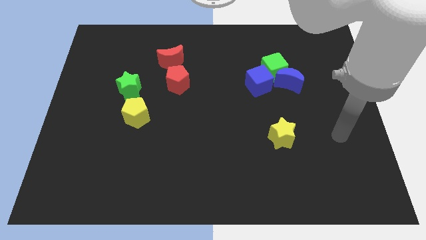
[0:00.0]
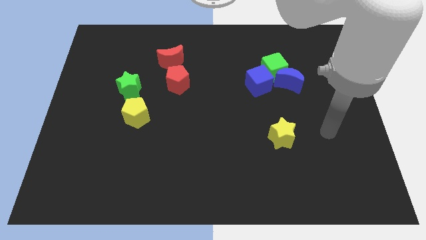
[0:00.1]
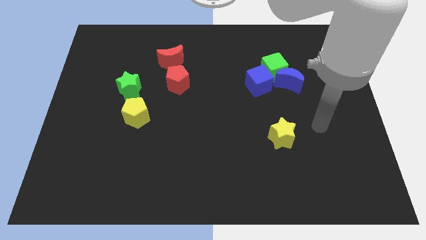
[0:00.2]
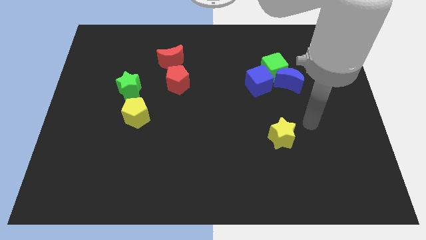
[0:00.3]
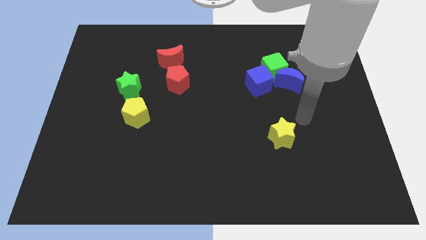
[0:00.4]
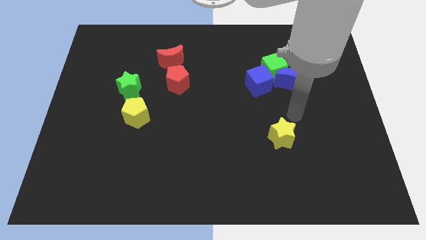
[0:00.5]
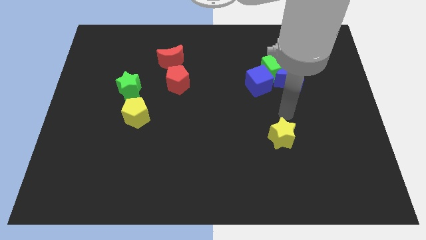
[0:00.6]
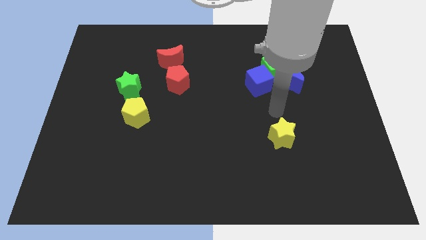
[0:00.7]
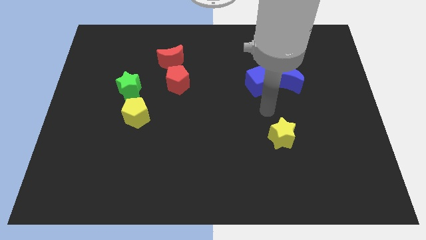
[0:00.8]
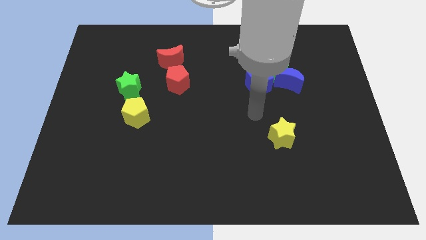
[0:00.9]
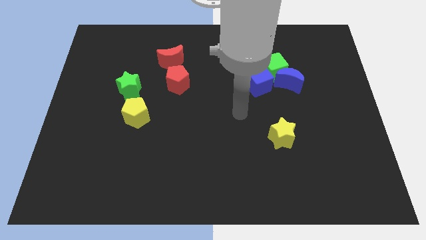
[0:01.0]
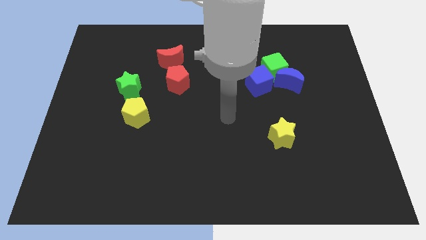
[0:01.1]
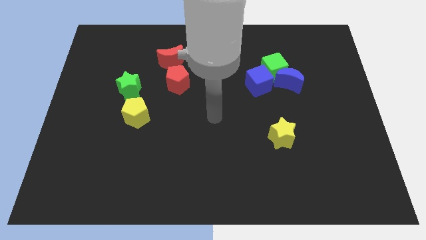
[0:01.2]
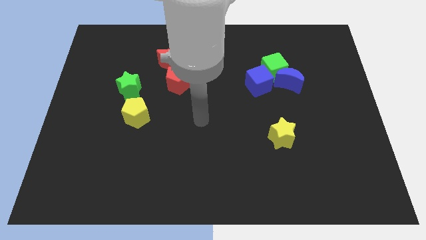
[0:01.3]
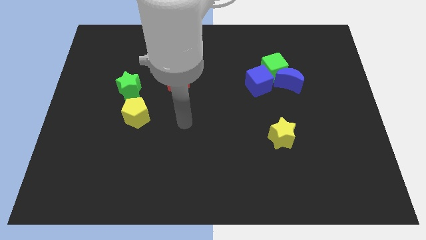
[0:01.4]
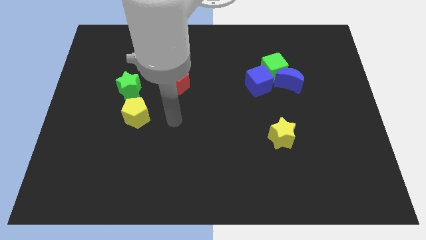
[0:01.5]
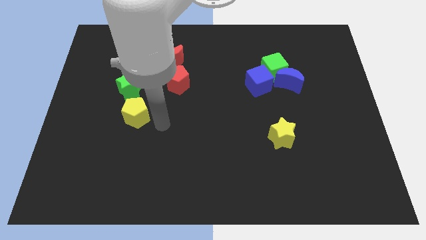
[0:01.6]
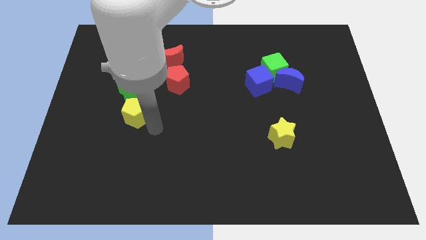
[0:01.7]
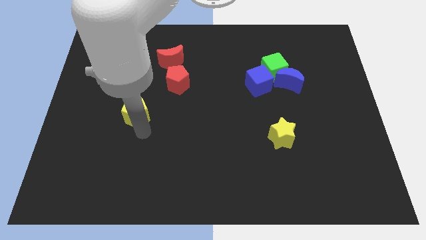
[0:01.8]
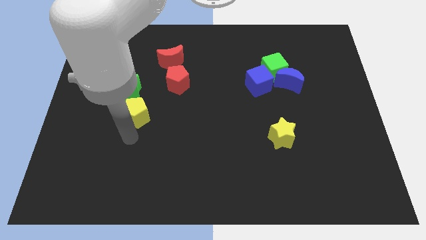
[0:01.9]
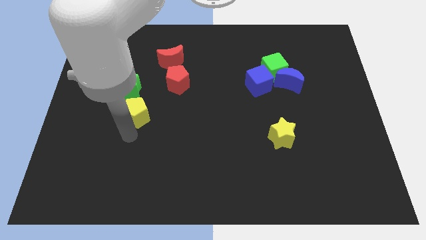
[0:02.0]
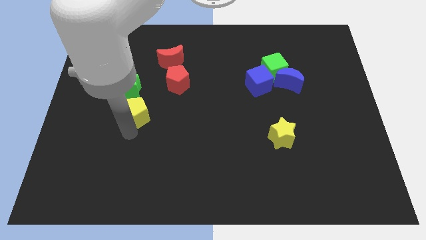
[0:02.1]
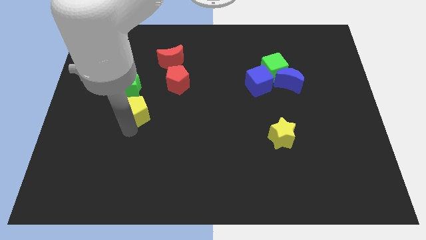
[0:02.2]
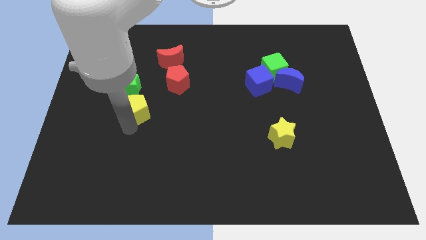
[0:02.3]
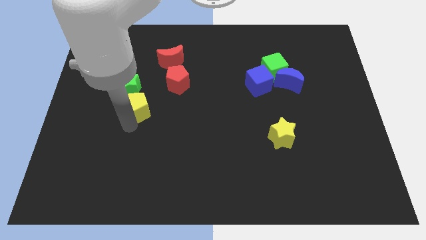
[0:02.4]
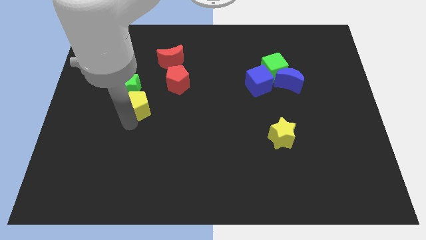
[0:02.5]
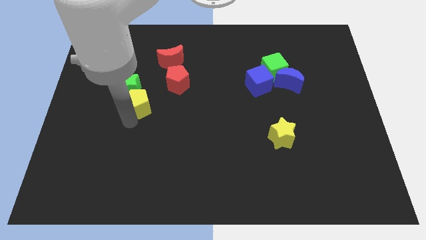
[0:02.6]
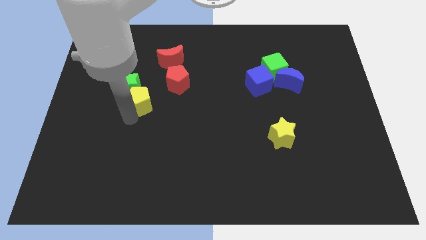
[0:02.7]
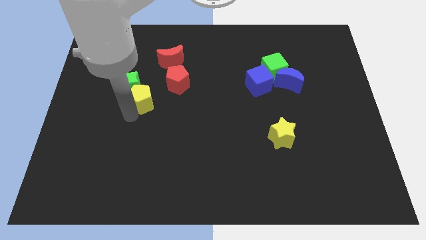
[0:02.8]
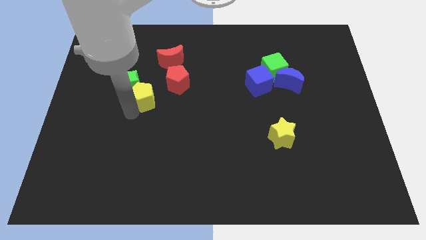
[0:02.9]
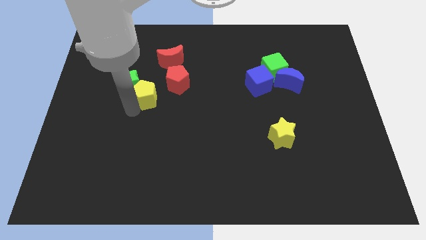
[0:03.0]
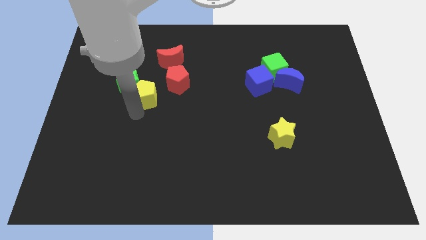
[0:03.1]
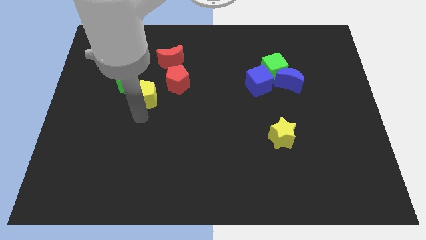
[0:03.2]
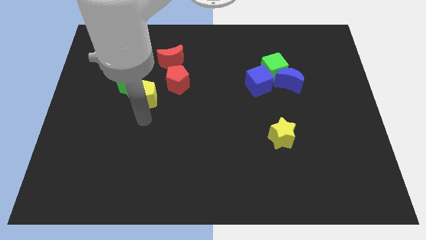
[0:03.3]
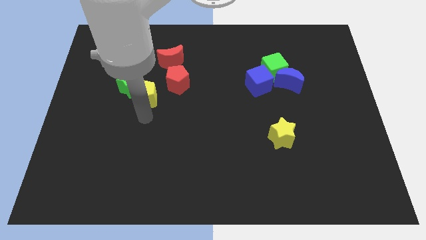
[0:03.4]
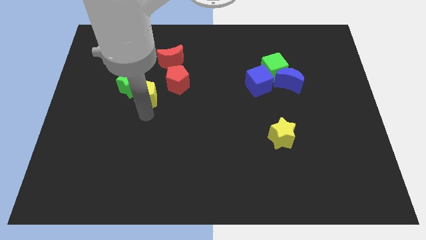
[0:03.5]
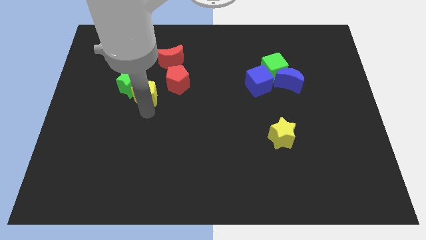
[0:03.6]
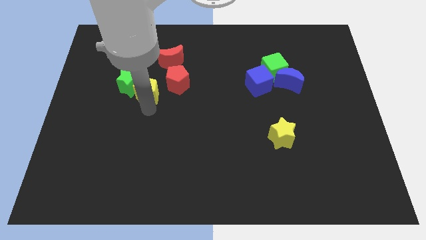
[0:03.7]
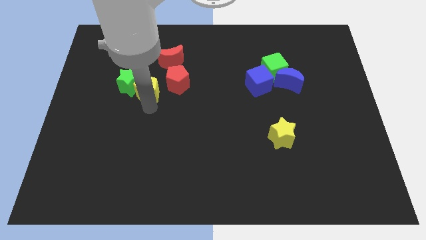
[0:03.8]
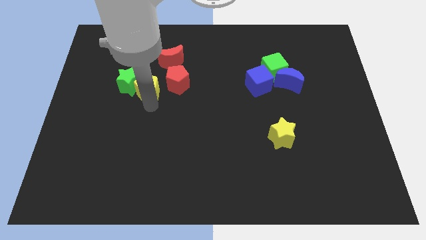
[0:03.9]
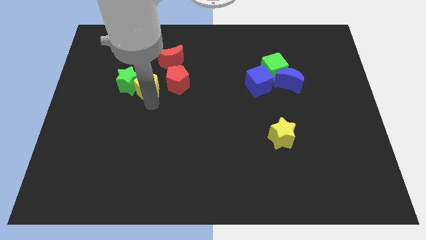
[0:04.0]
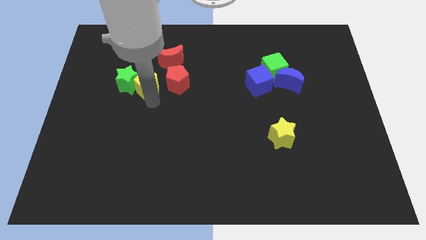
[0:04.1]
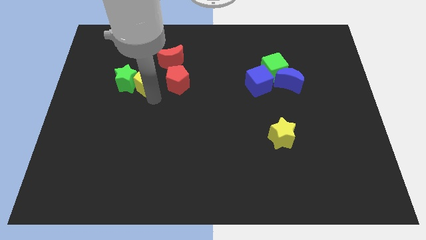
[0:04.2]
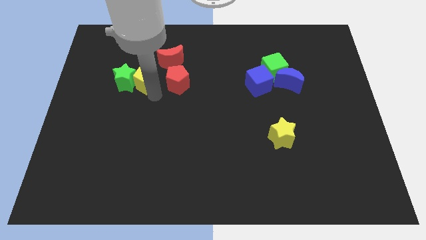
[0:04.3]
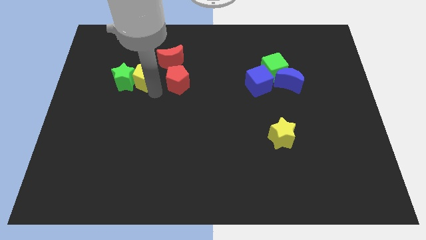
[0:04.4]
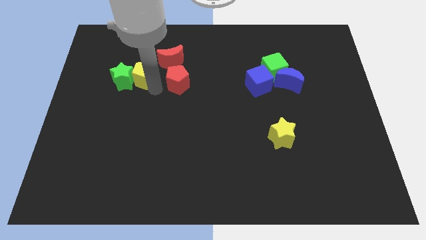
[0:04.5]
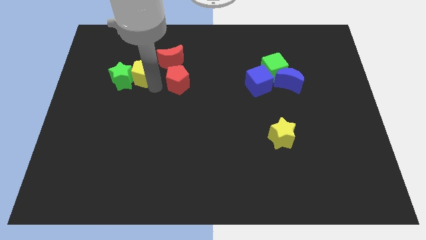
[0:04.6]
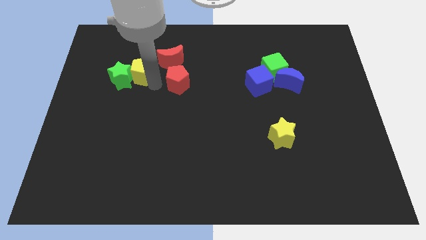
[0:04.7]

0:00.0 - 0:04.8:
put the yellow pentagon to the left of the red moon

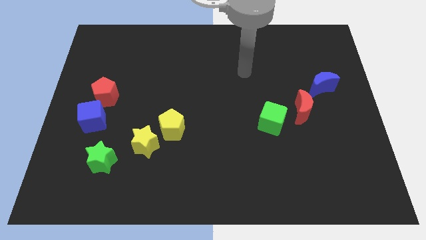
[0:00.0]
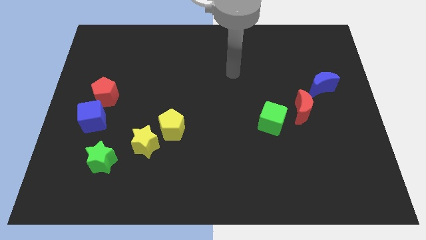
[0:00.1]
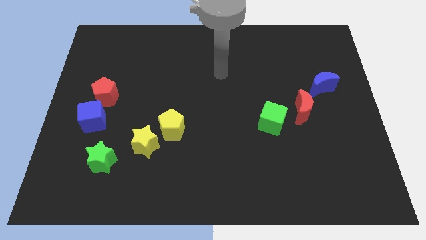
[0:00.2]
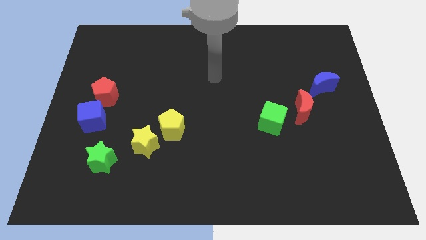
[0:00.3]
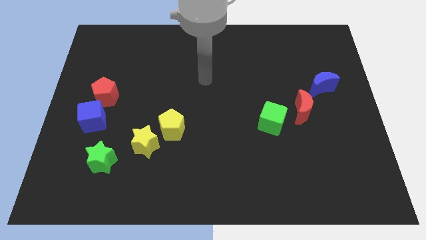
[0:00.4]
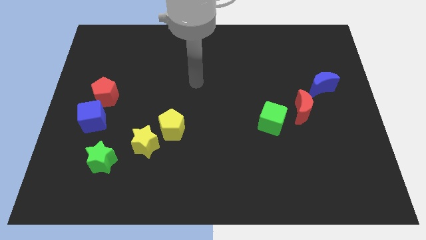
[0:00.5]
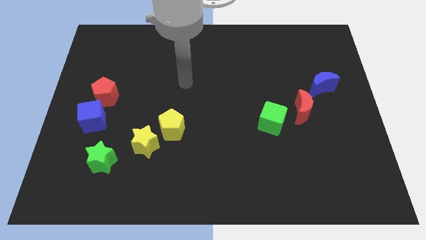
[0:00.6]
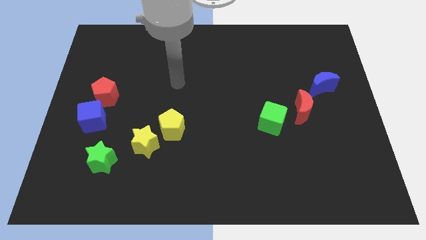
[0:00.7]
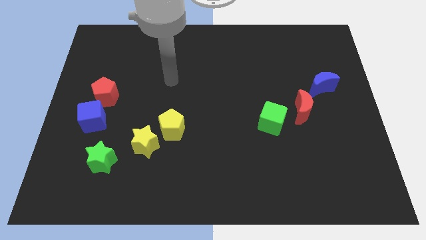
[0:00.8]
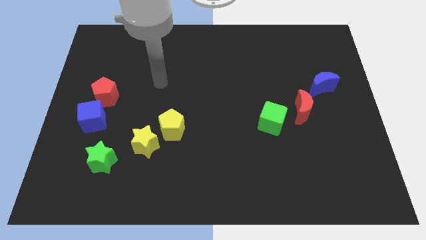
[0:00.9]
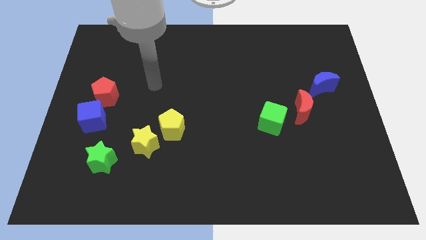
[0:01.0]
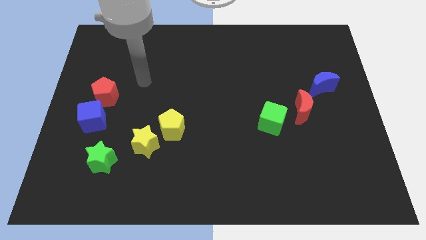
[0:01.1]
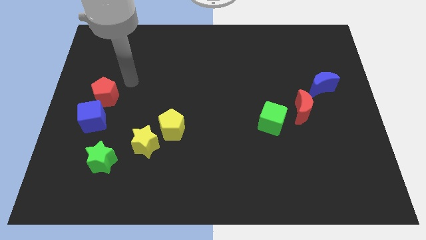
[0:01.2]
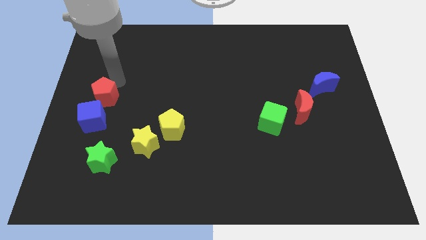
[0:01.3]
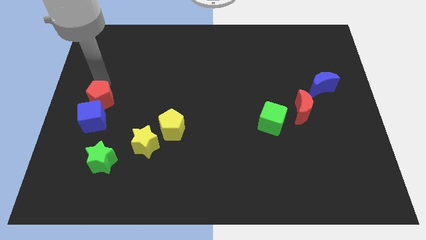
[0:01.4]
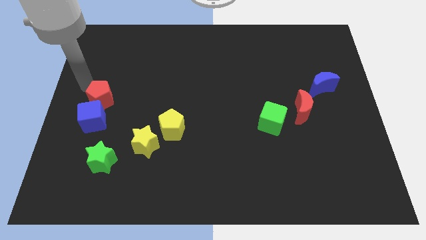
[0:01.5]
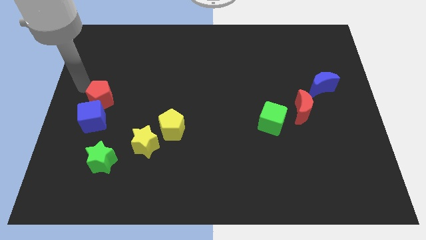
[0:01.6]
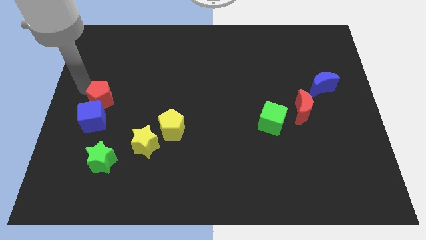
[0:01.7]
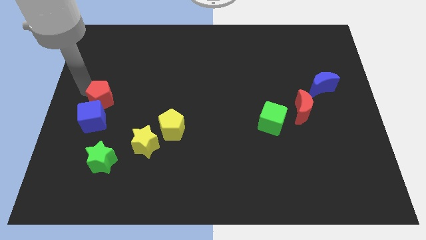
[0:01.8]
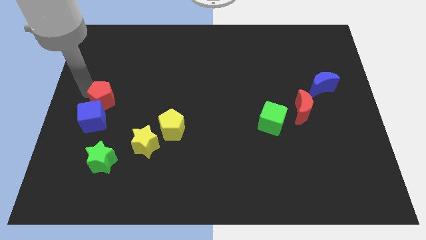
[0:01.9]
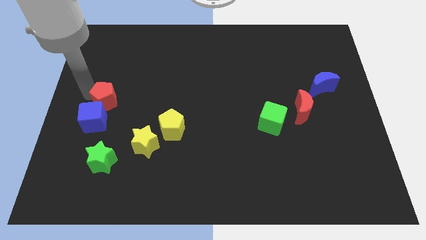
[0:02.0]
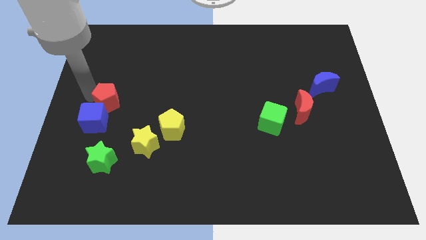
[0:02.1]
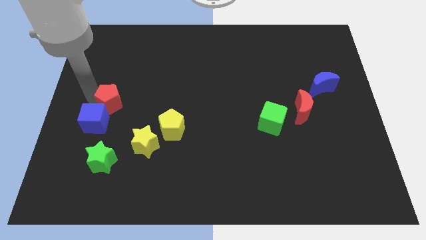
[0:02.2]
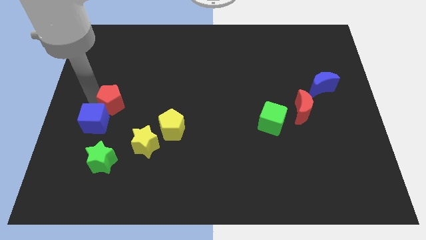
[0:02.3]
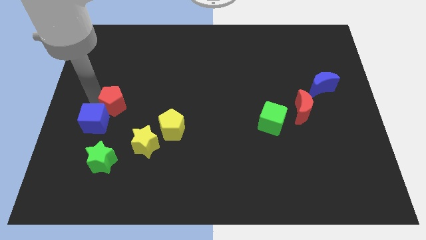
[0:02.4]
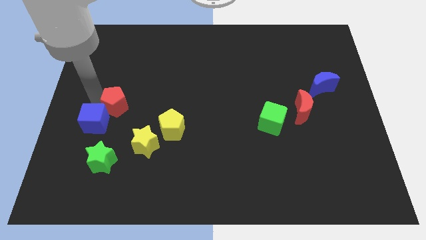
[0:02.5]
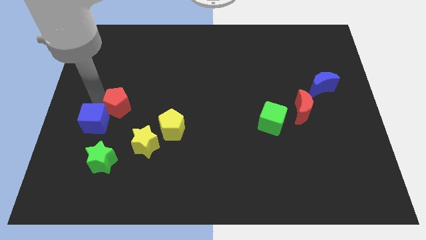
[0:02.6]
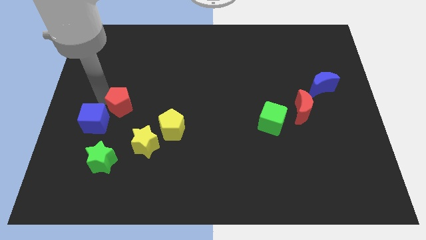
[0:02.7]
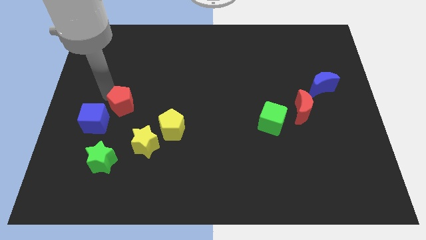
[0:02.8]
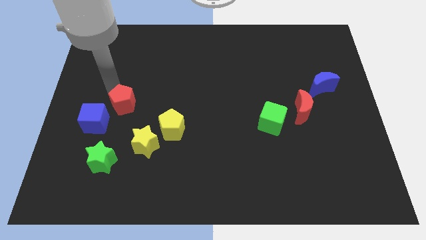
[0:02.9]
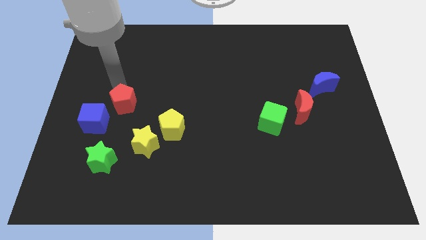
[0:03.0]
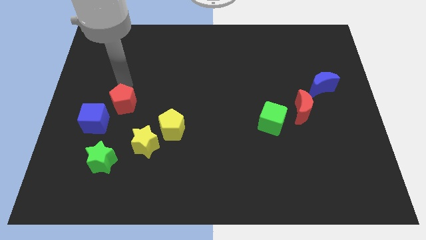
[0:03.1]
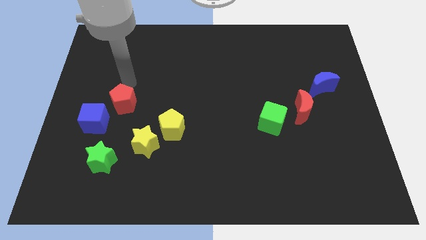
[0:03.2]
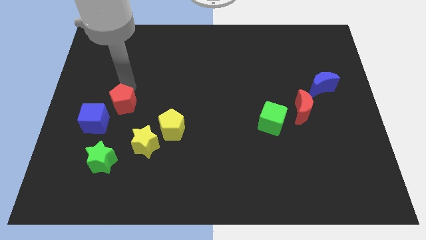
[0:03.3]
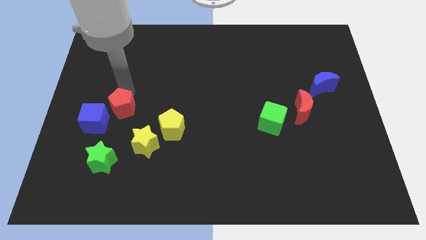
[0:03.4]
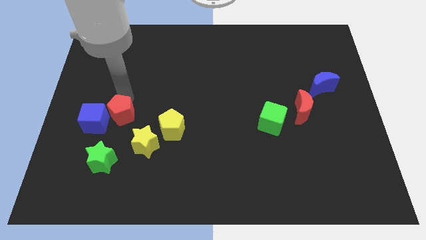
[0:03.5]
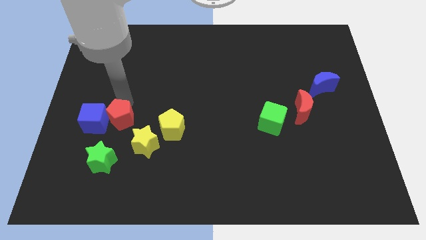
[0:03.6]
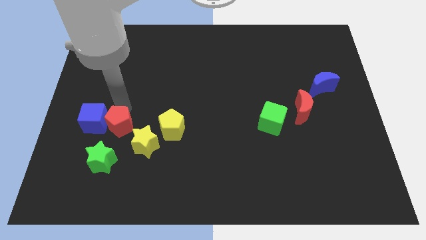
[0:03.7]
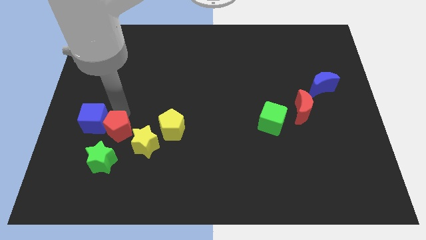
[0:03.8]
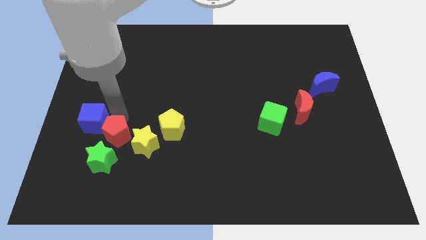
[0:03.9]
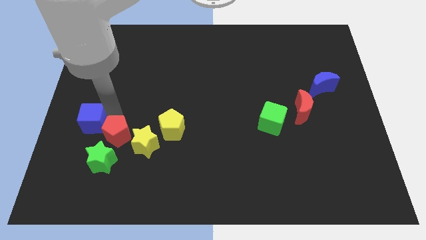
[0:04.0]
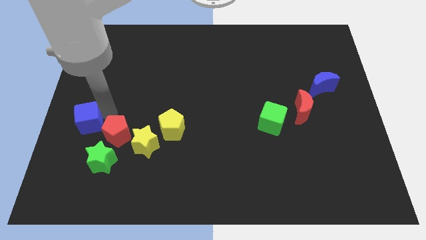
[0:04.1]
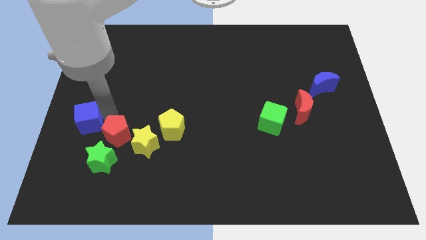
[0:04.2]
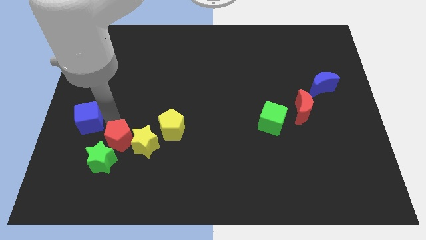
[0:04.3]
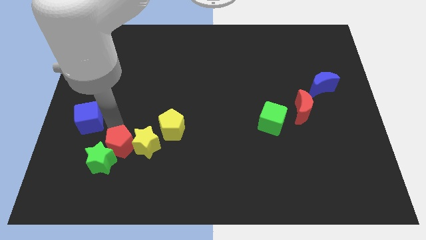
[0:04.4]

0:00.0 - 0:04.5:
push the red pentagon diagonally down and to the left of the yellow pentagon
